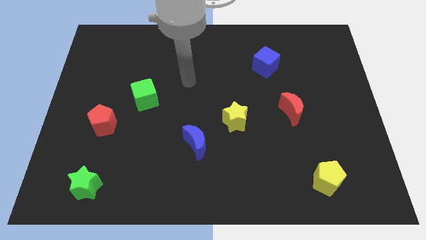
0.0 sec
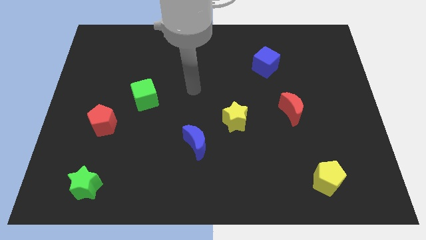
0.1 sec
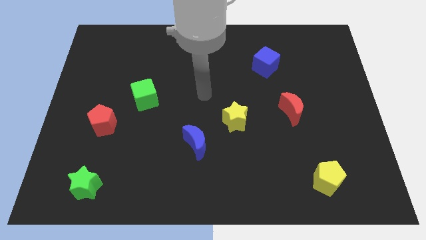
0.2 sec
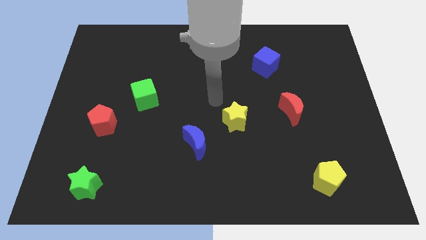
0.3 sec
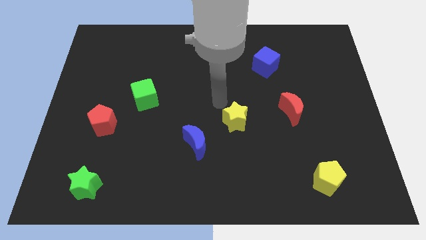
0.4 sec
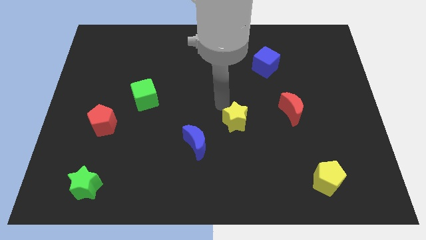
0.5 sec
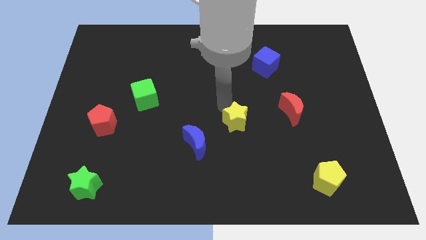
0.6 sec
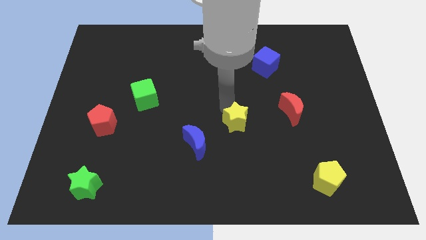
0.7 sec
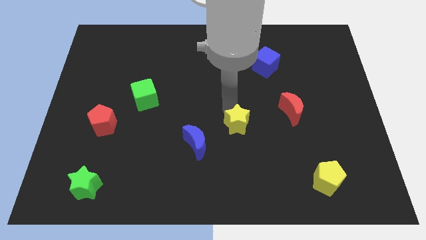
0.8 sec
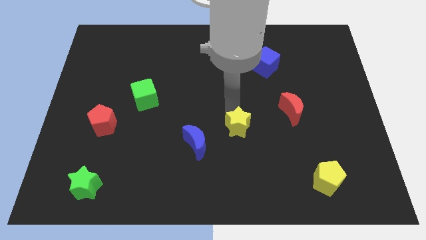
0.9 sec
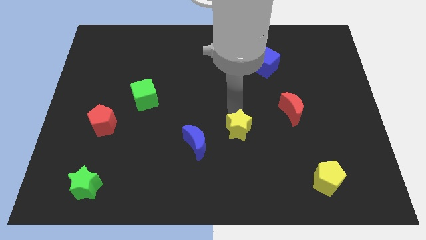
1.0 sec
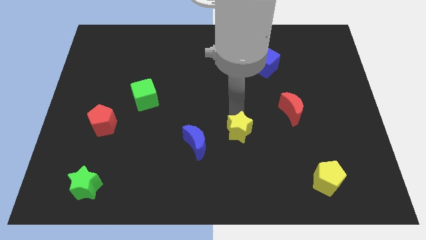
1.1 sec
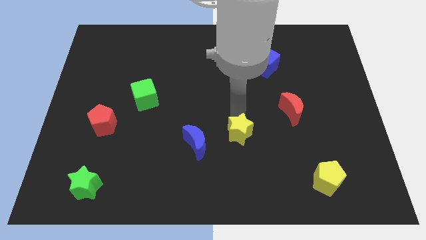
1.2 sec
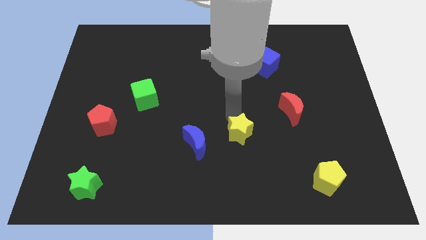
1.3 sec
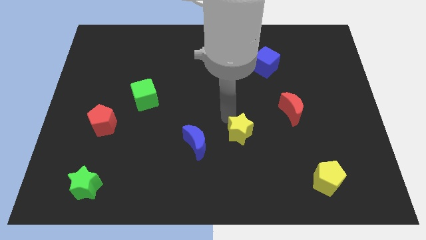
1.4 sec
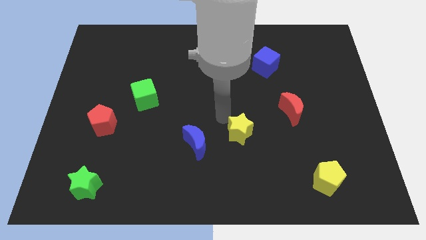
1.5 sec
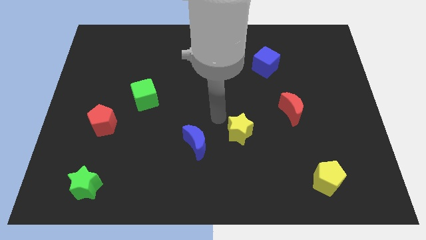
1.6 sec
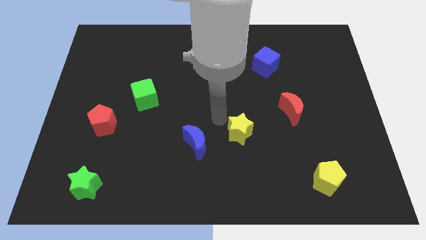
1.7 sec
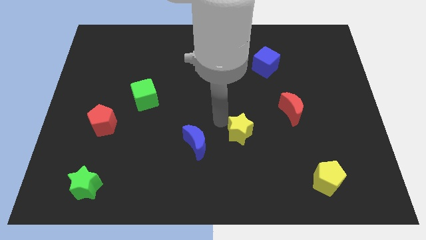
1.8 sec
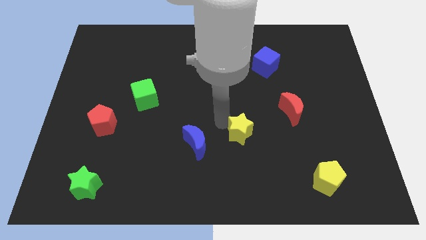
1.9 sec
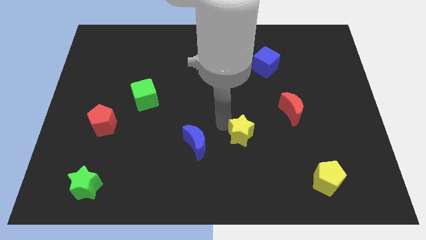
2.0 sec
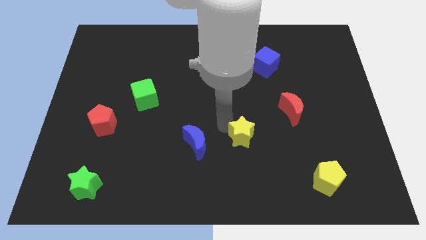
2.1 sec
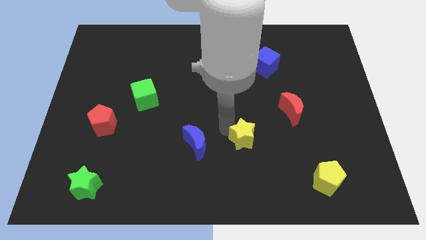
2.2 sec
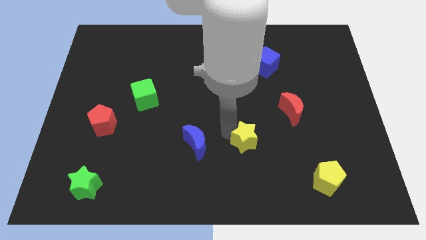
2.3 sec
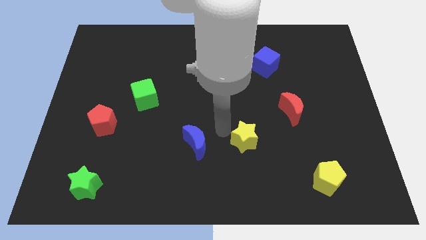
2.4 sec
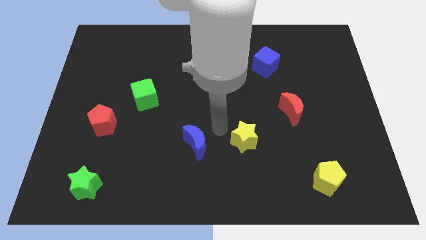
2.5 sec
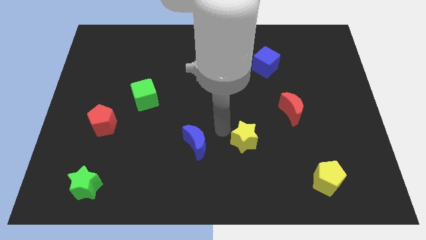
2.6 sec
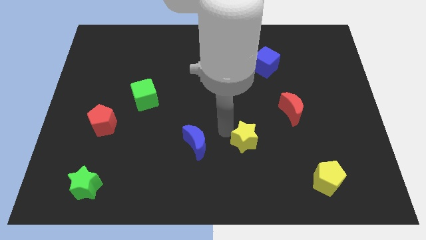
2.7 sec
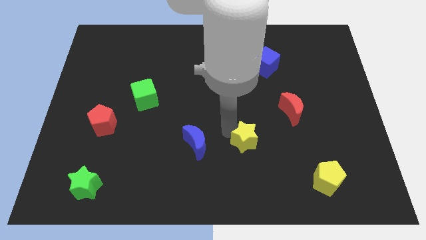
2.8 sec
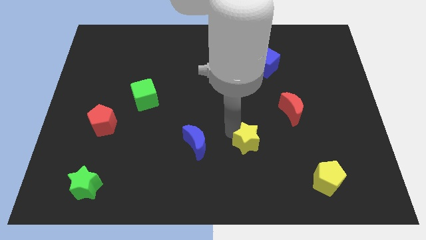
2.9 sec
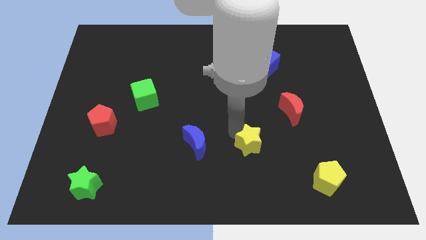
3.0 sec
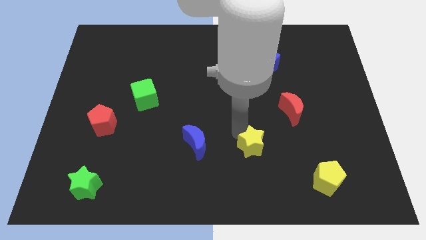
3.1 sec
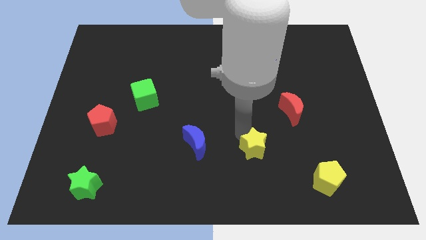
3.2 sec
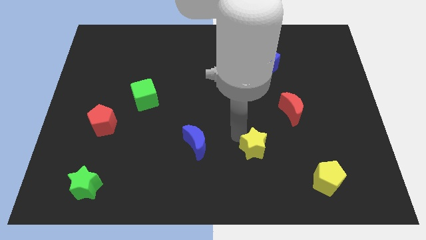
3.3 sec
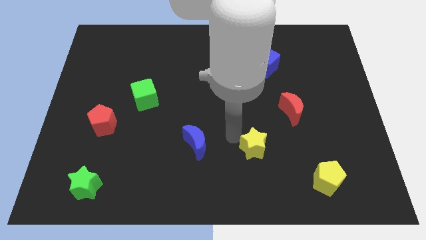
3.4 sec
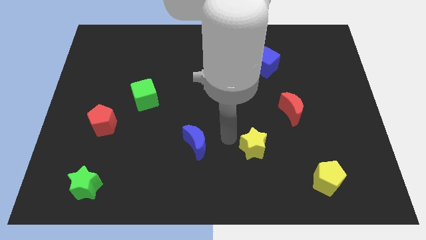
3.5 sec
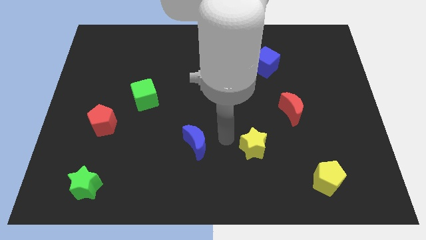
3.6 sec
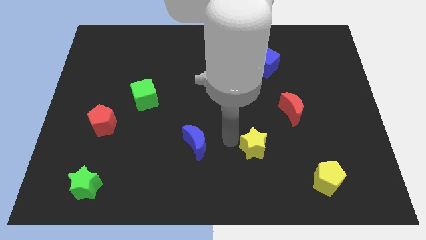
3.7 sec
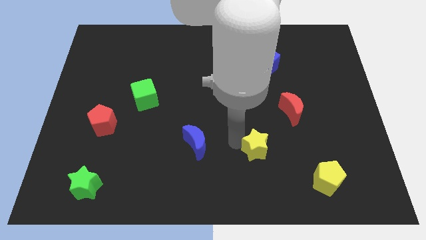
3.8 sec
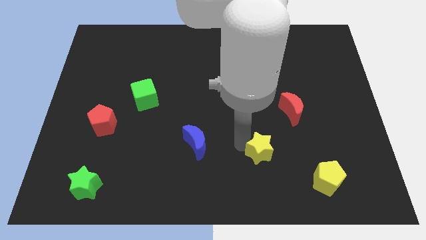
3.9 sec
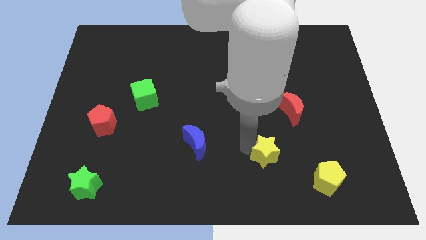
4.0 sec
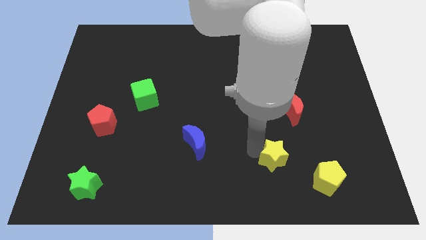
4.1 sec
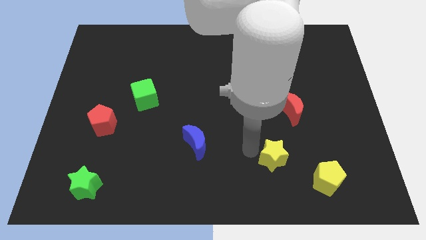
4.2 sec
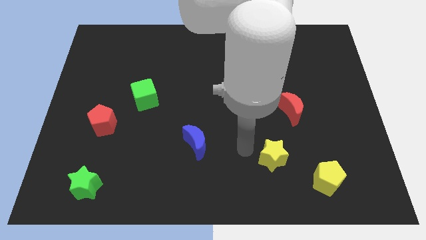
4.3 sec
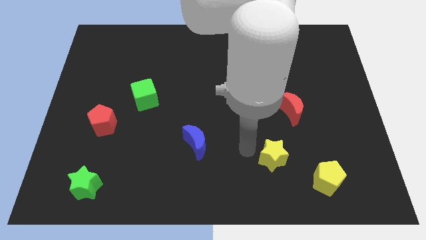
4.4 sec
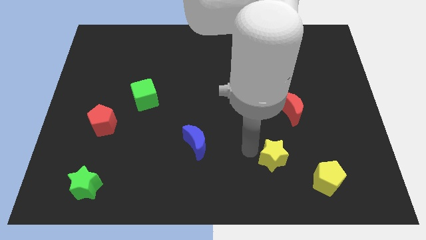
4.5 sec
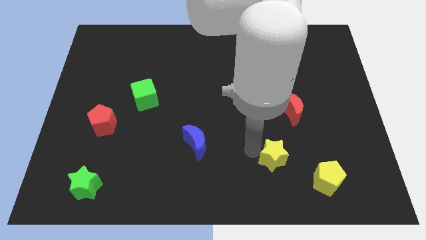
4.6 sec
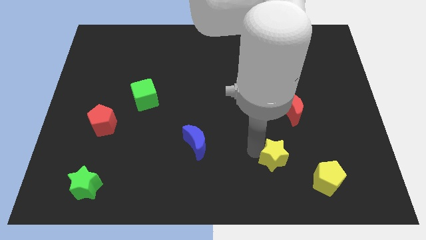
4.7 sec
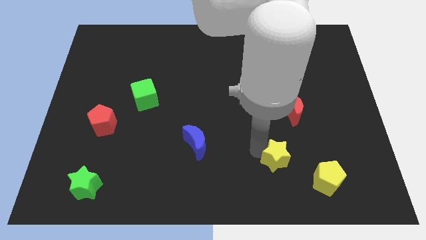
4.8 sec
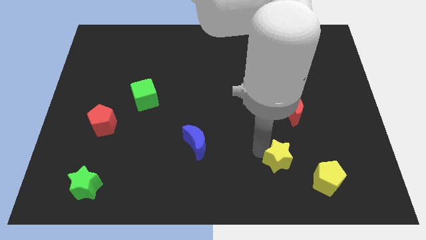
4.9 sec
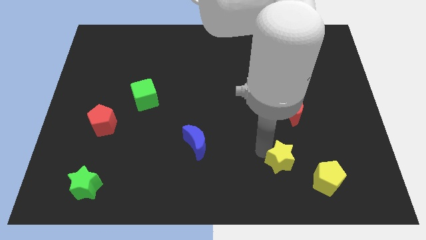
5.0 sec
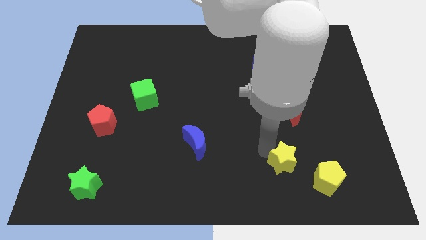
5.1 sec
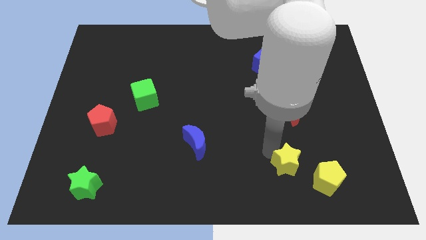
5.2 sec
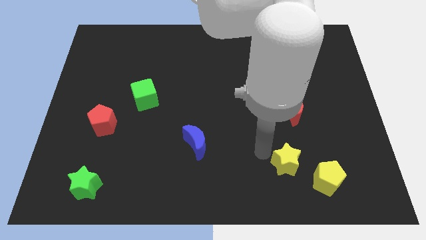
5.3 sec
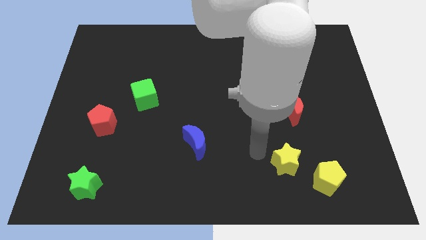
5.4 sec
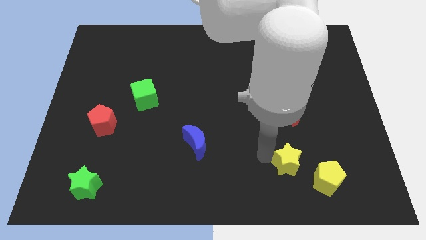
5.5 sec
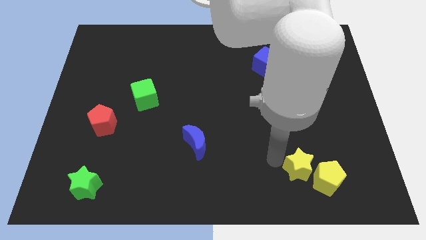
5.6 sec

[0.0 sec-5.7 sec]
push the yellow star close to the yellow pentagon
